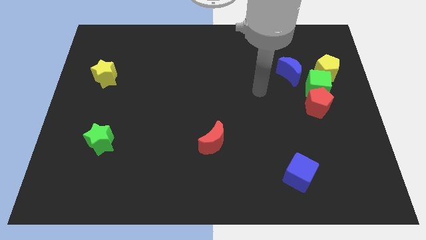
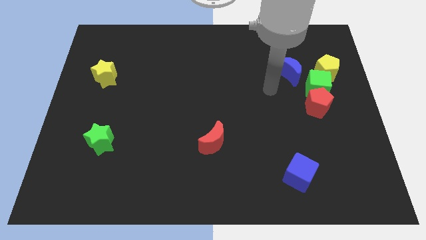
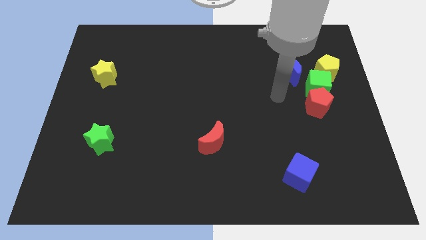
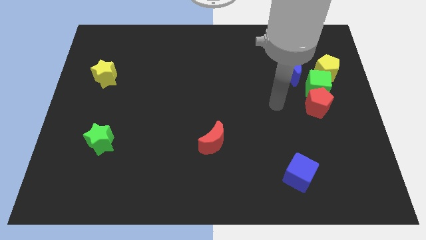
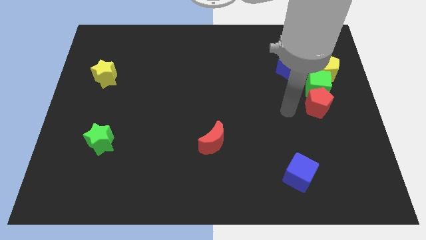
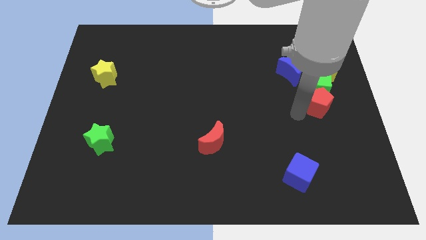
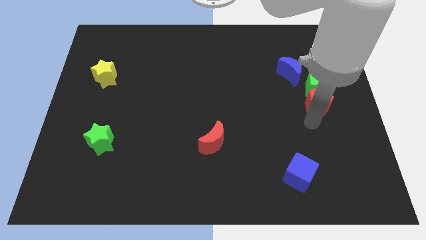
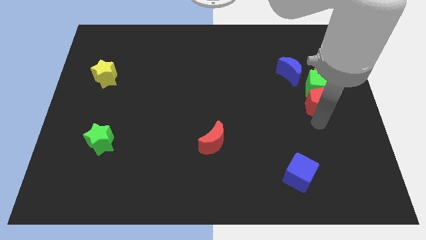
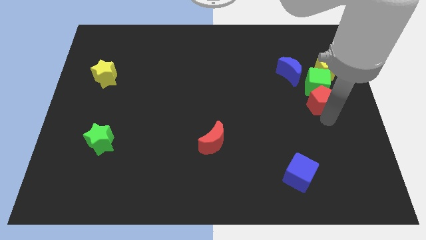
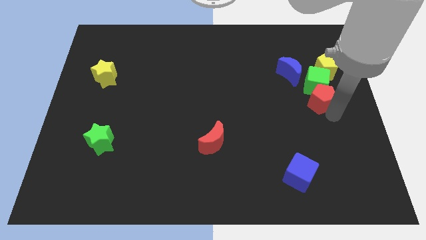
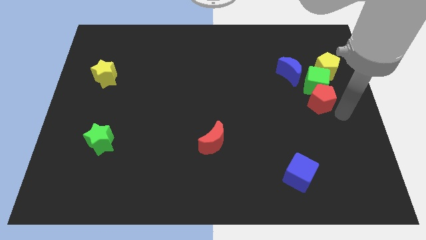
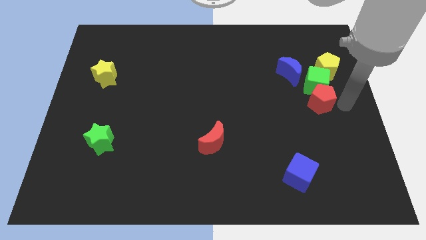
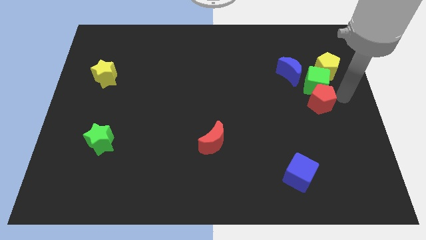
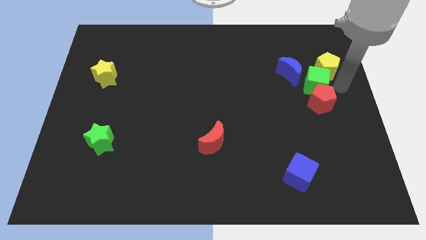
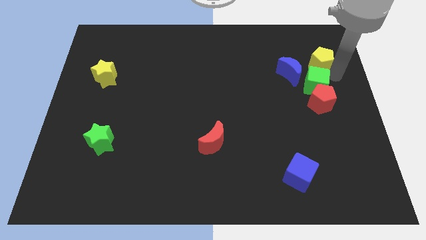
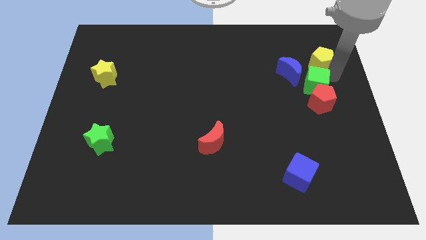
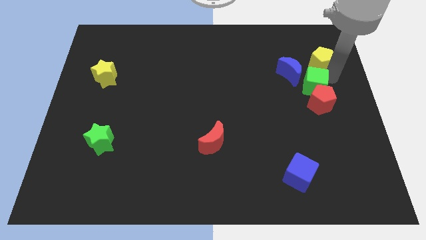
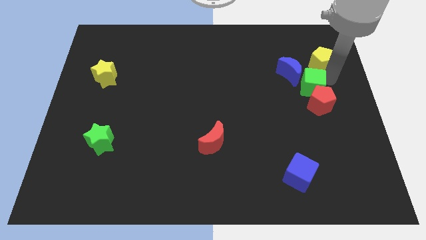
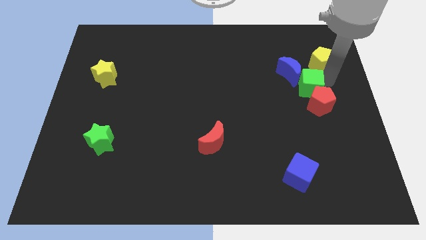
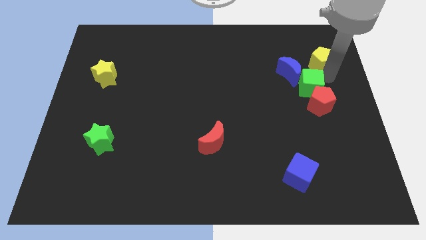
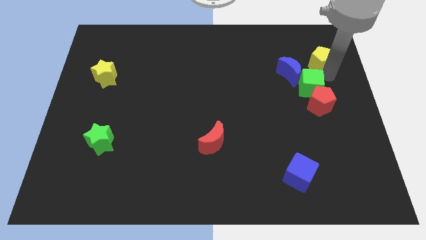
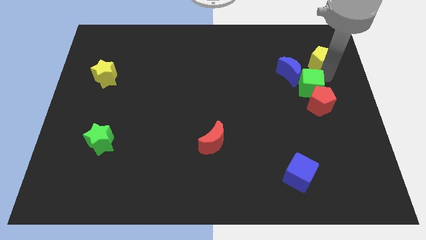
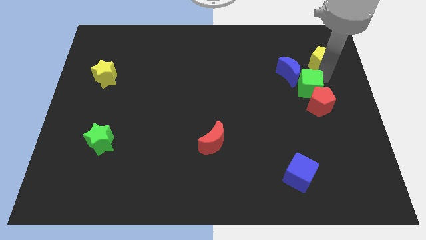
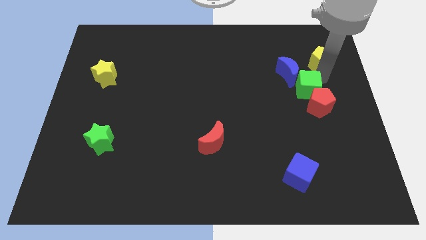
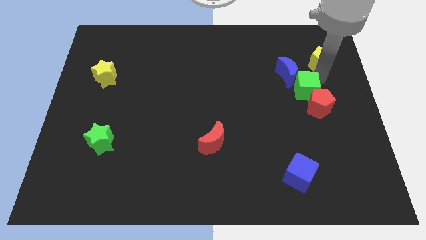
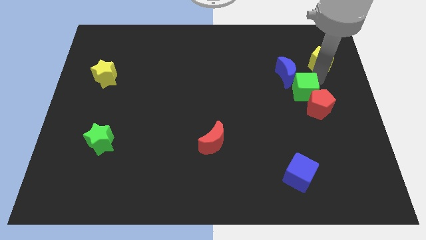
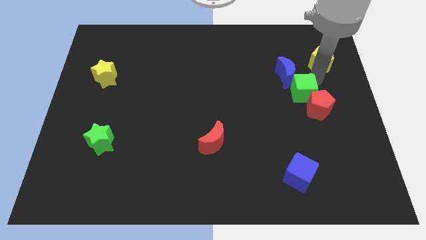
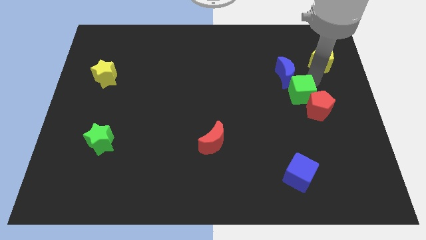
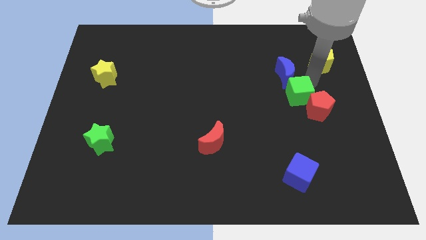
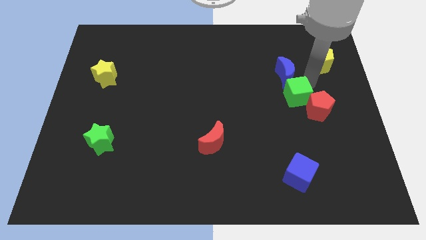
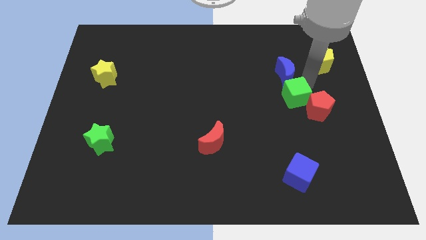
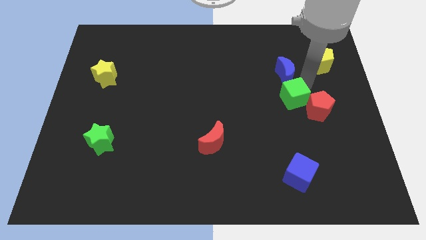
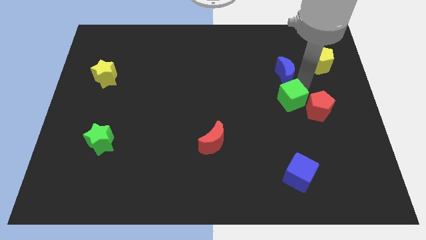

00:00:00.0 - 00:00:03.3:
slightly move the green cube downwards and left

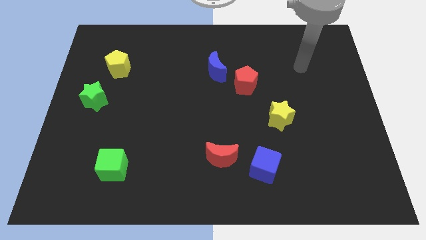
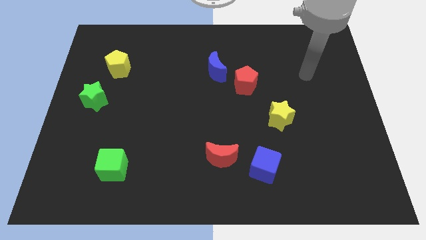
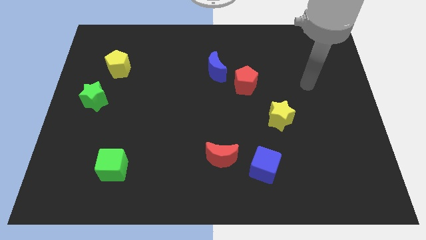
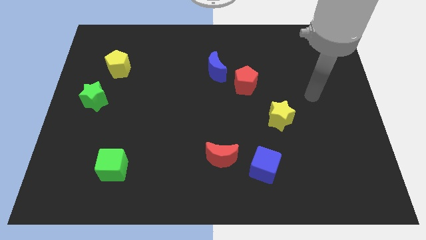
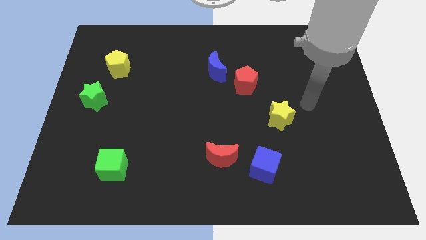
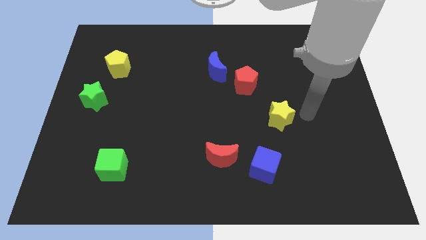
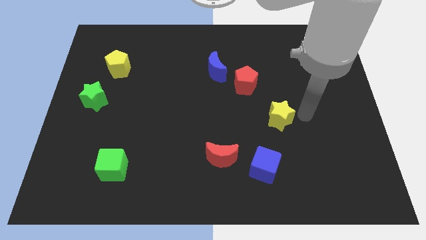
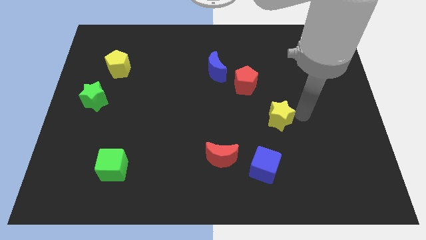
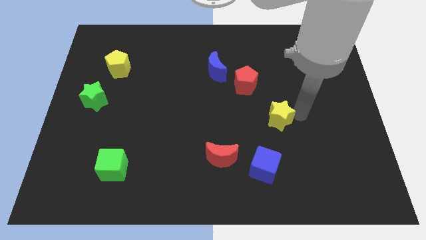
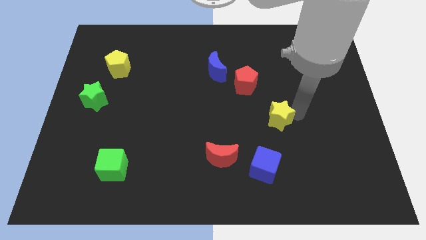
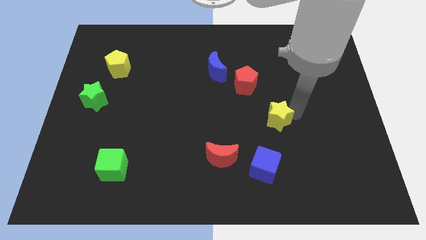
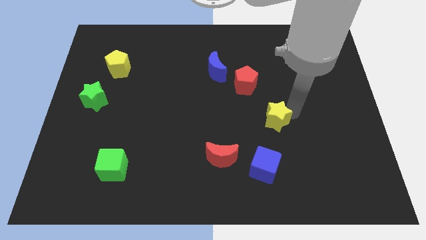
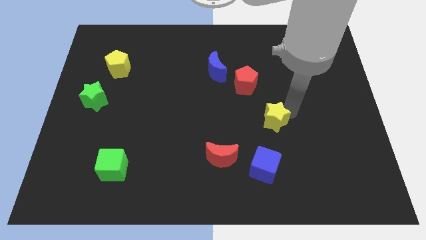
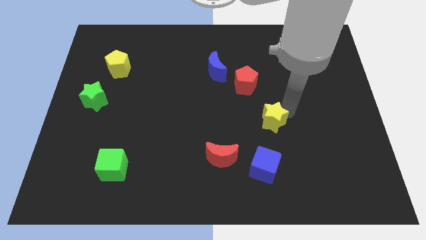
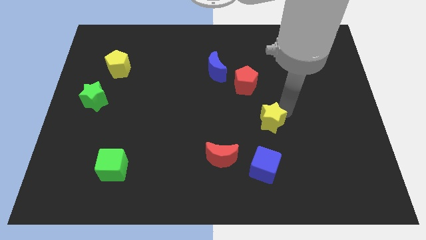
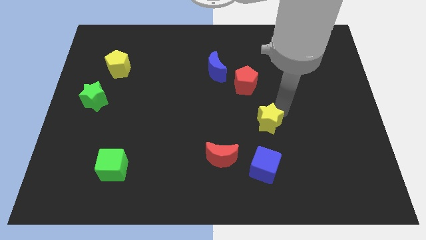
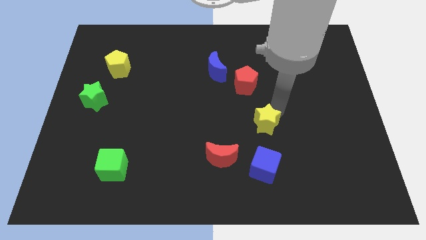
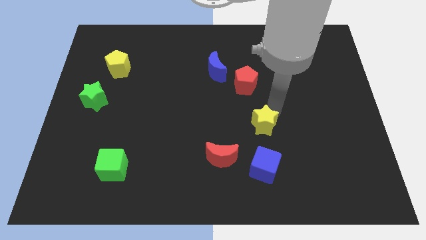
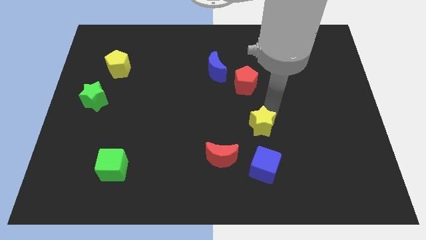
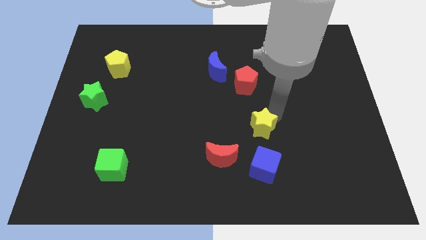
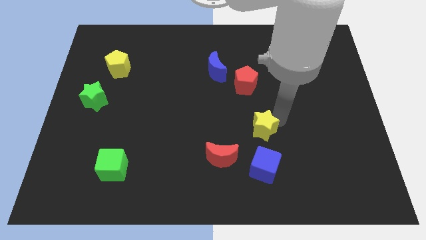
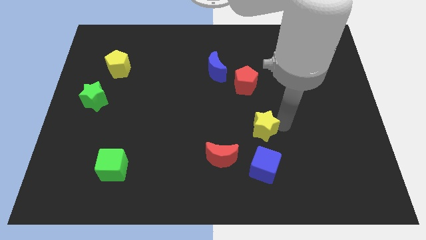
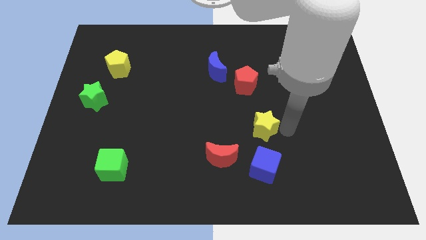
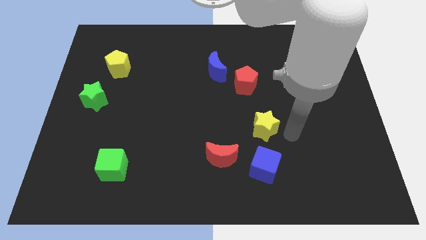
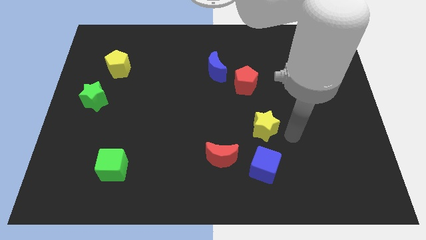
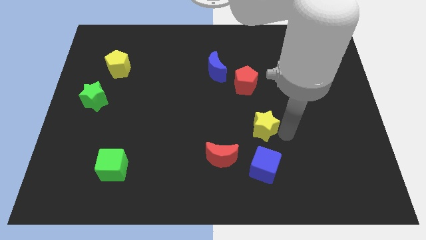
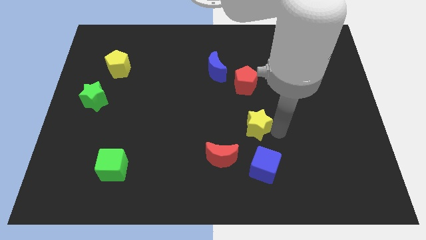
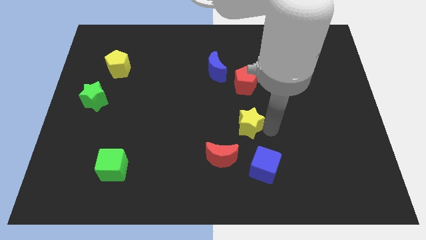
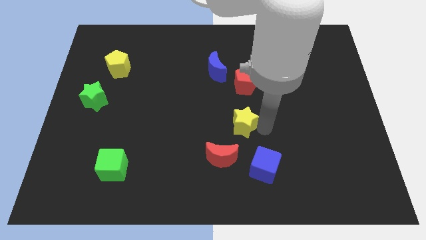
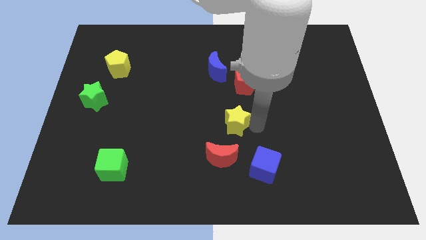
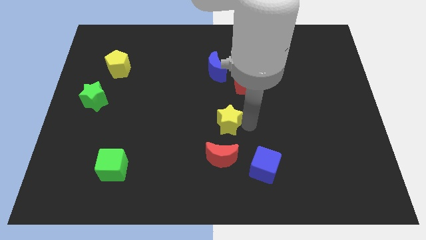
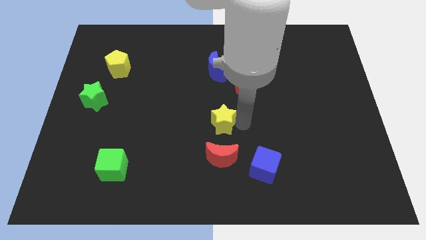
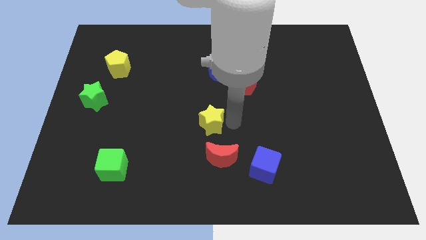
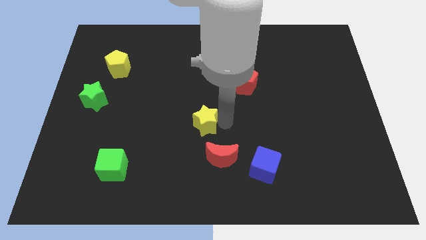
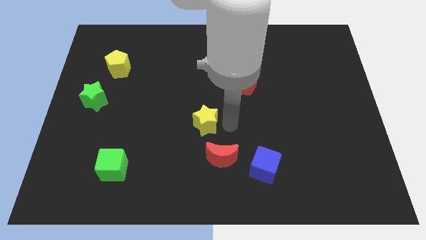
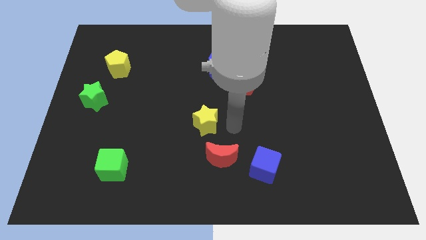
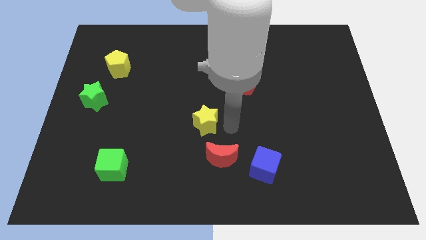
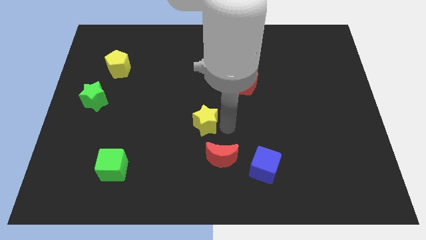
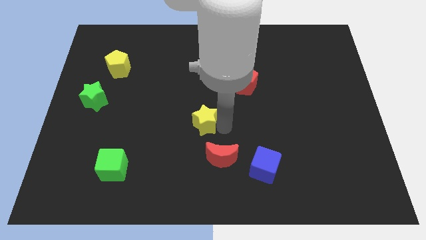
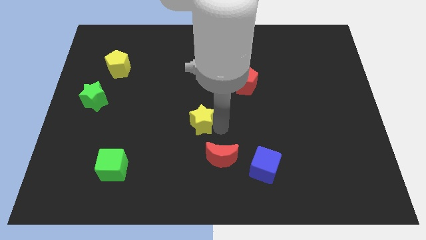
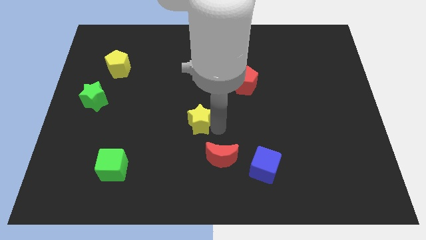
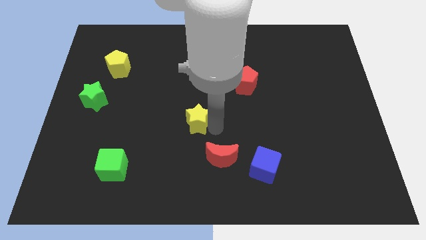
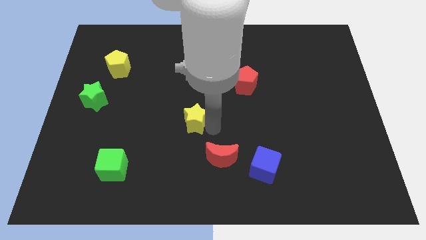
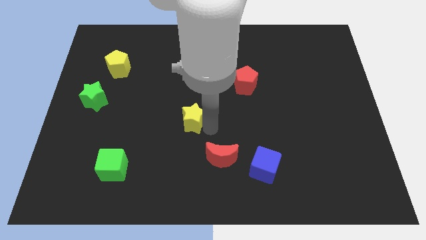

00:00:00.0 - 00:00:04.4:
slide the yellow star to the left

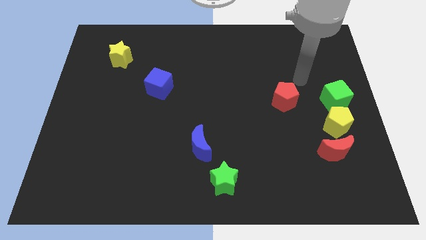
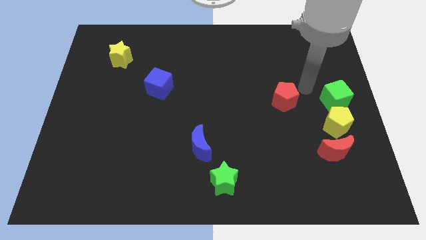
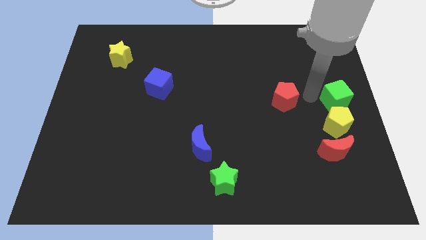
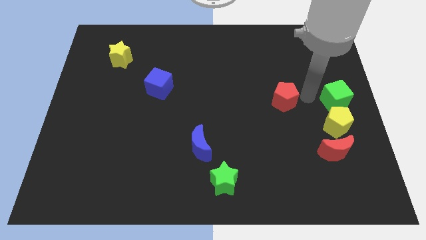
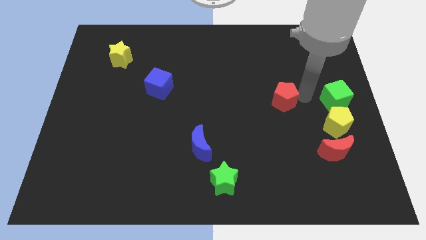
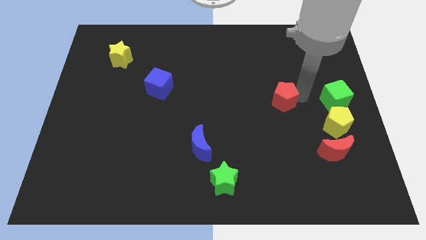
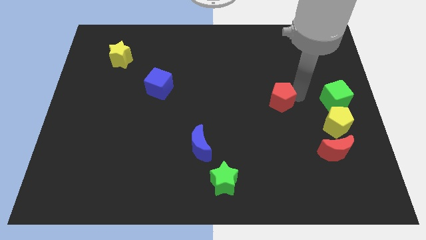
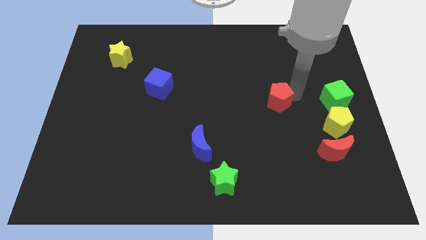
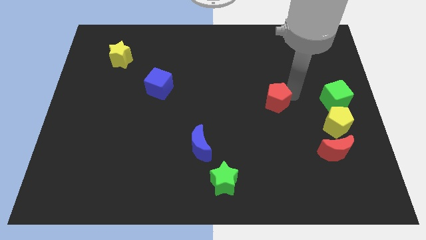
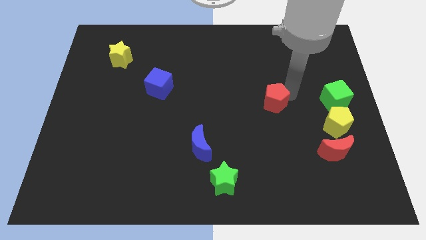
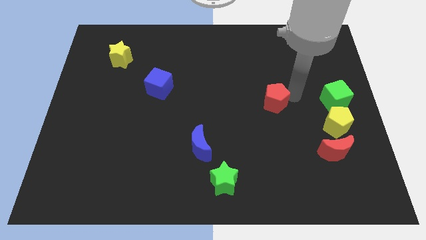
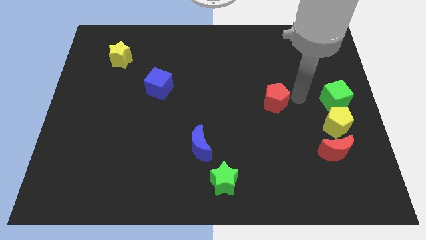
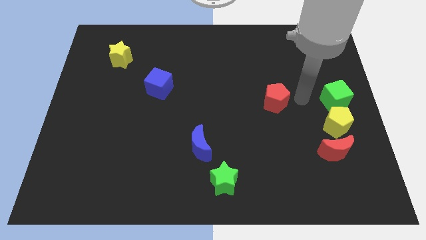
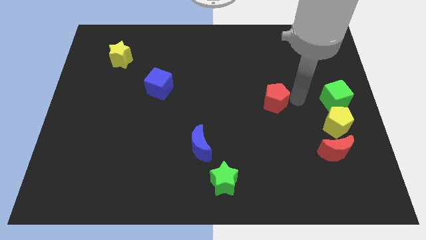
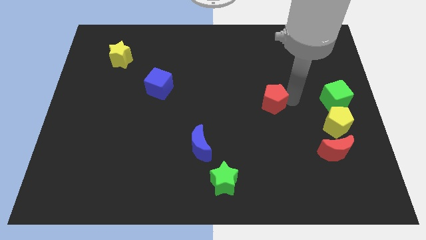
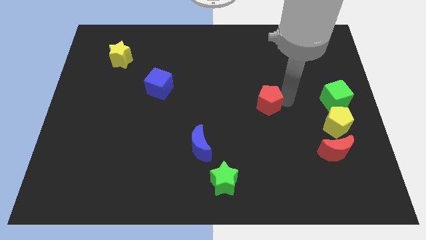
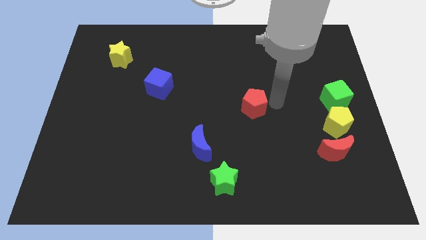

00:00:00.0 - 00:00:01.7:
slightly move the red pentagon to the left
